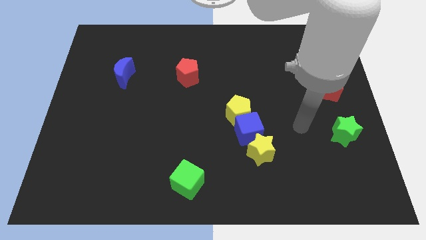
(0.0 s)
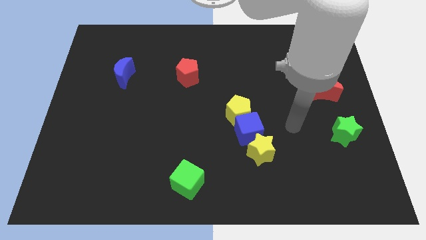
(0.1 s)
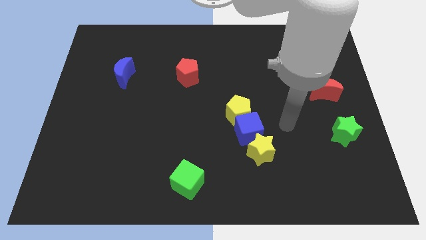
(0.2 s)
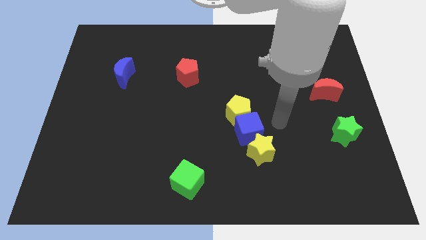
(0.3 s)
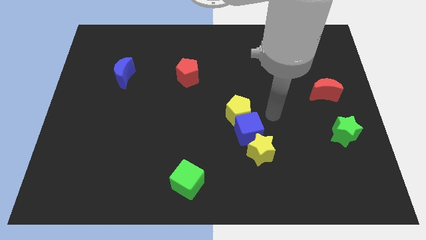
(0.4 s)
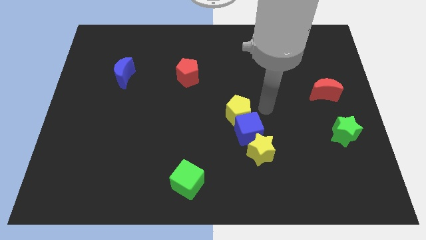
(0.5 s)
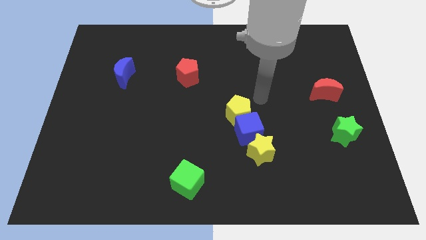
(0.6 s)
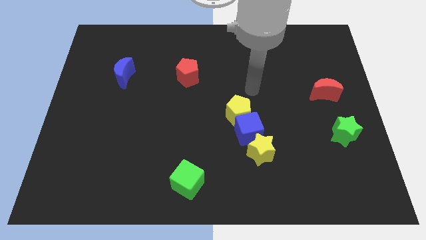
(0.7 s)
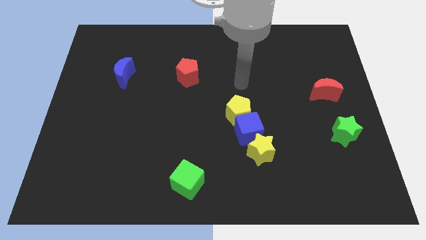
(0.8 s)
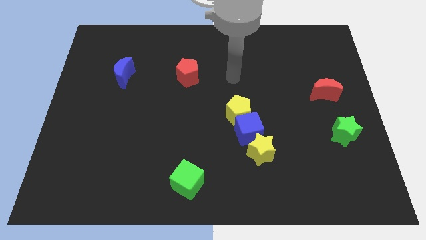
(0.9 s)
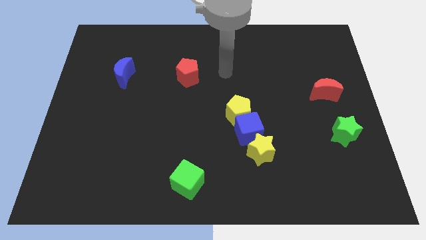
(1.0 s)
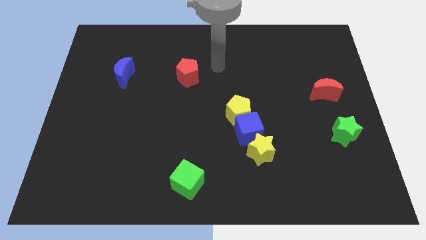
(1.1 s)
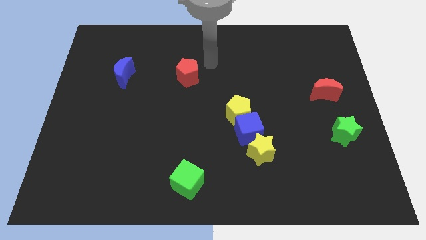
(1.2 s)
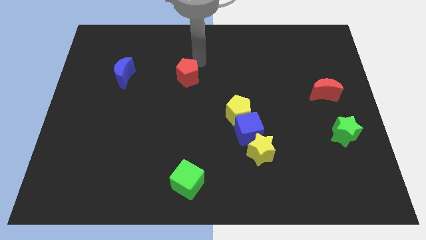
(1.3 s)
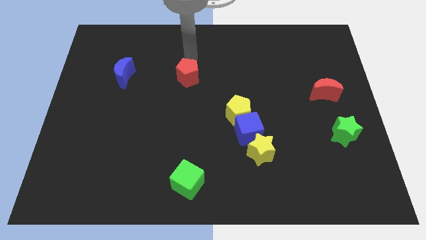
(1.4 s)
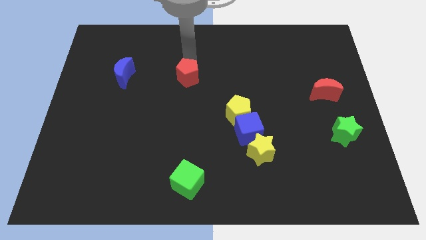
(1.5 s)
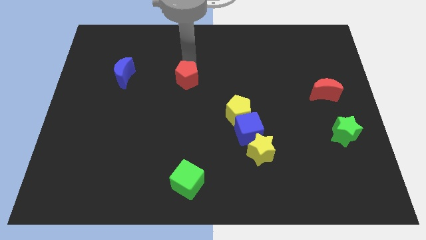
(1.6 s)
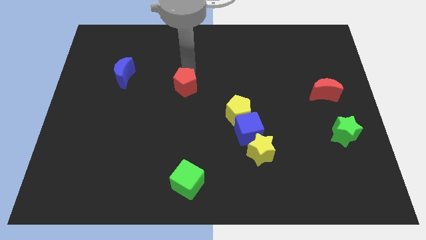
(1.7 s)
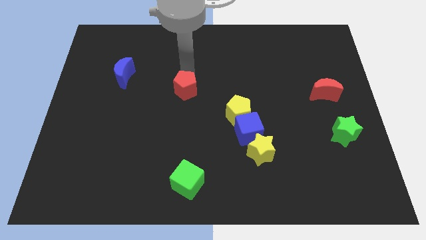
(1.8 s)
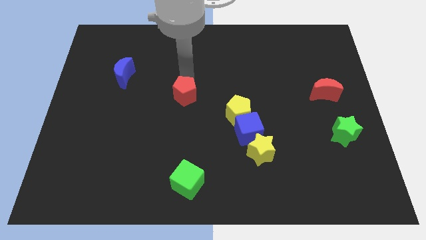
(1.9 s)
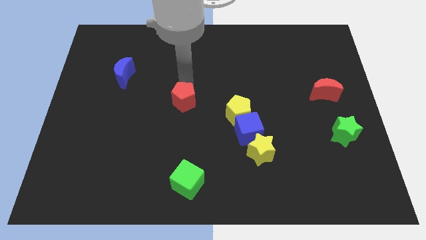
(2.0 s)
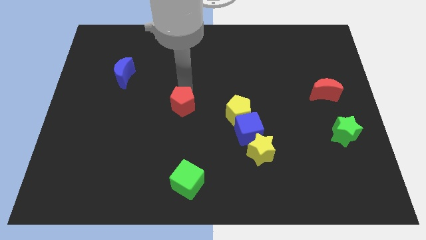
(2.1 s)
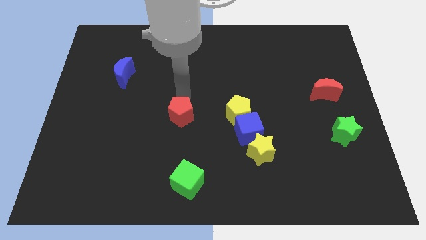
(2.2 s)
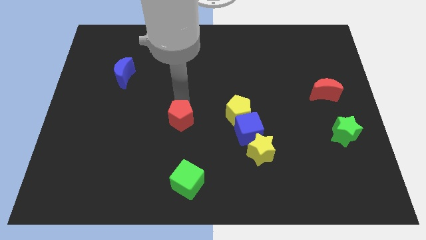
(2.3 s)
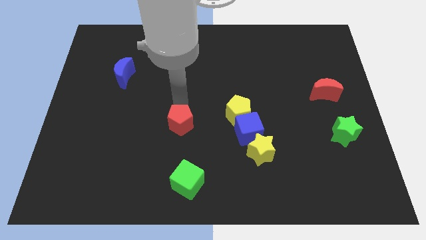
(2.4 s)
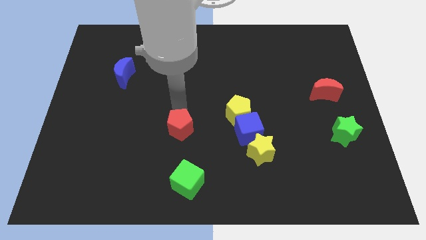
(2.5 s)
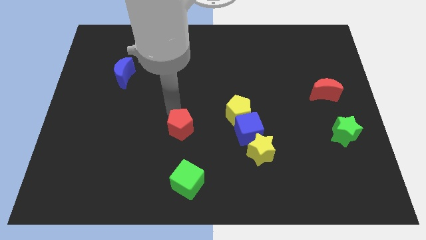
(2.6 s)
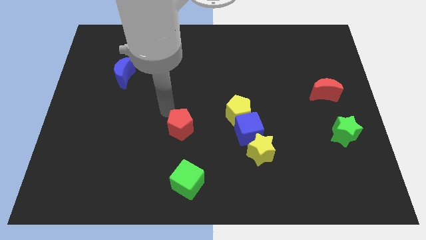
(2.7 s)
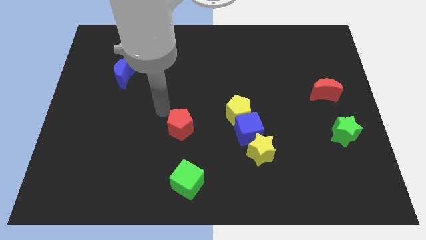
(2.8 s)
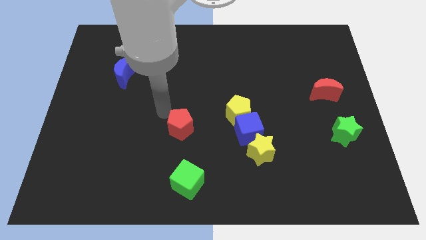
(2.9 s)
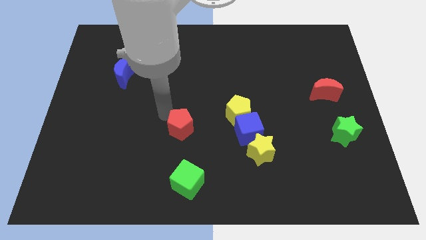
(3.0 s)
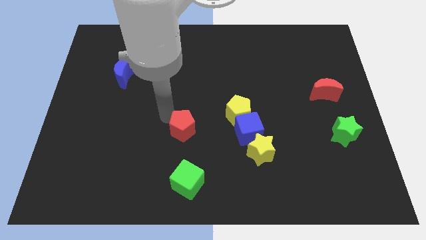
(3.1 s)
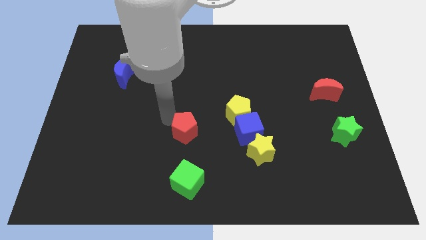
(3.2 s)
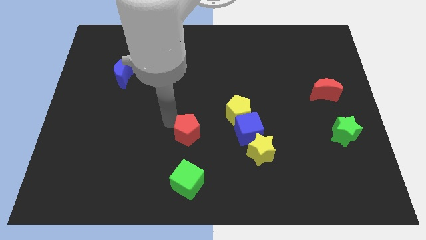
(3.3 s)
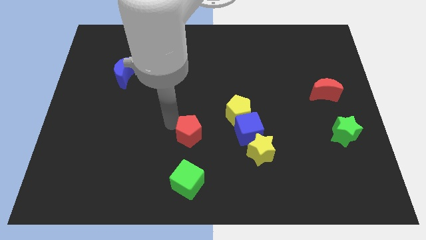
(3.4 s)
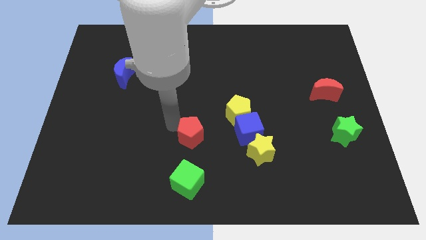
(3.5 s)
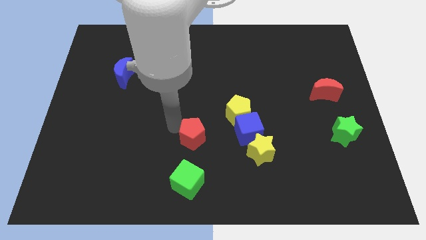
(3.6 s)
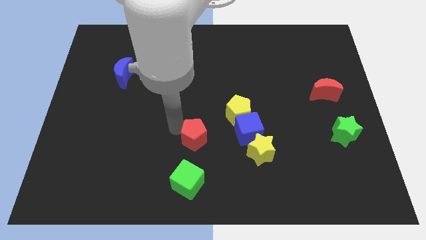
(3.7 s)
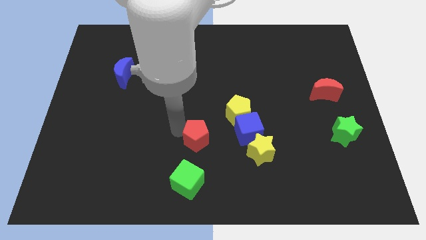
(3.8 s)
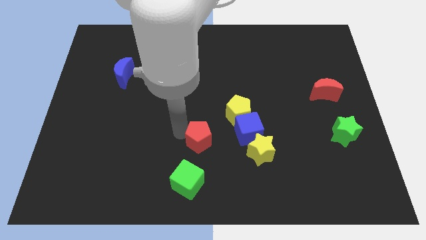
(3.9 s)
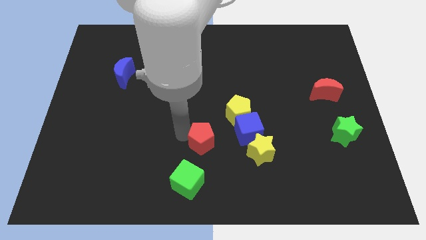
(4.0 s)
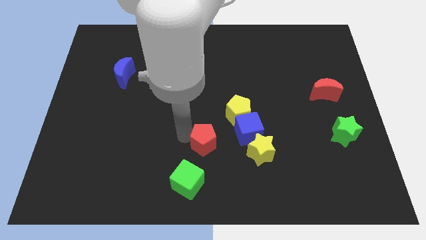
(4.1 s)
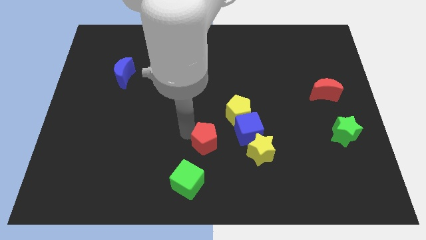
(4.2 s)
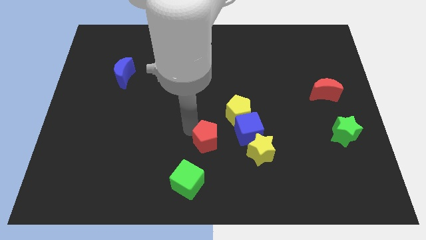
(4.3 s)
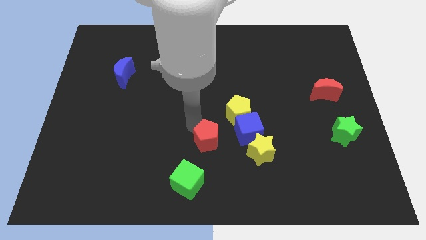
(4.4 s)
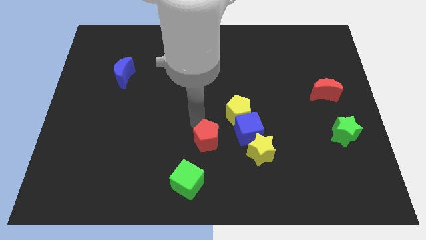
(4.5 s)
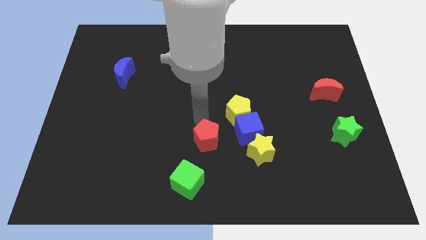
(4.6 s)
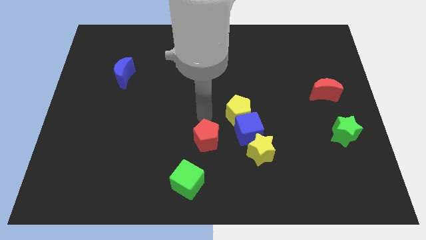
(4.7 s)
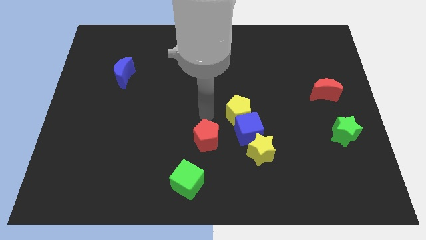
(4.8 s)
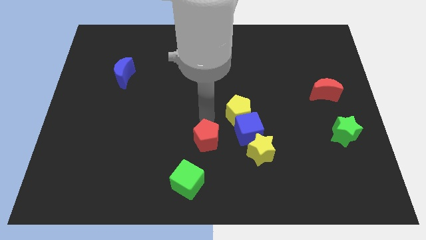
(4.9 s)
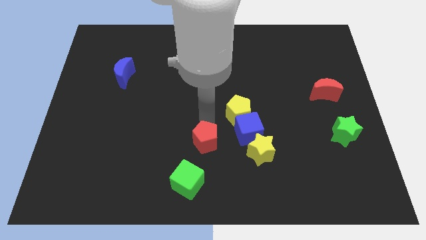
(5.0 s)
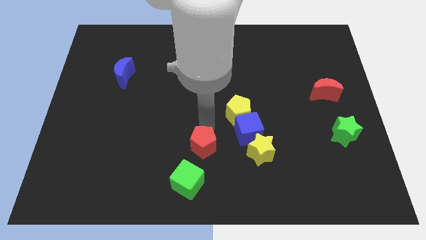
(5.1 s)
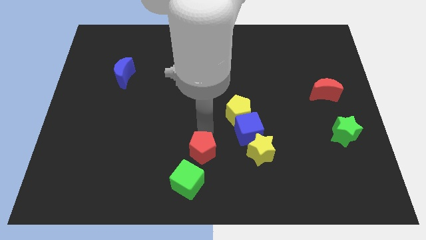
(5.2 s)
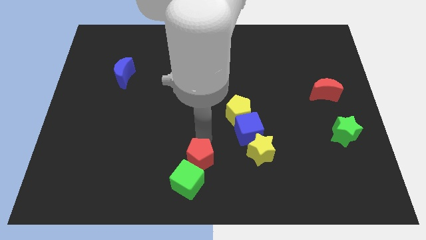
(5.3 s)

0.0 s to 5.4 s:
push the red pentagon to the bottom side

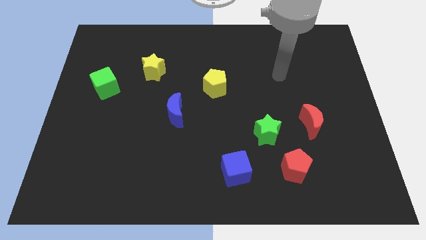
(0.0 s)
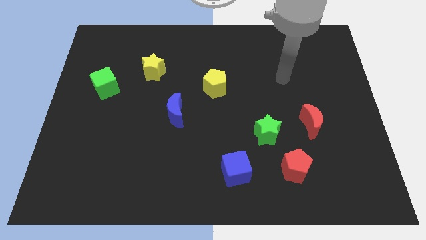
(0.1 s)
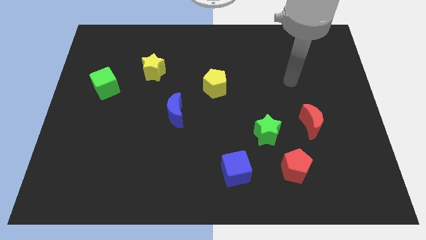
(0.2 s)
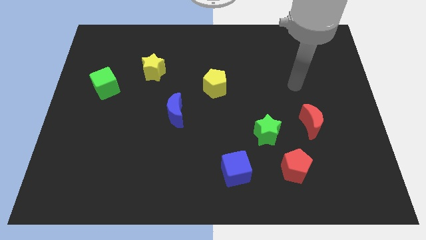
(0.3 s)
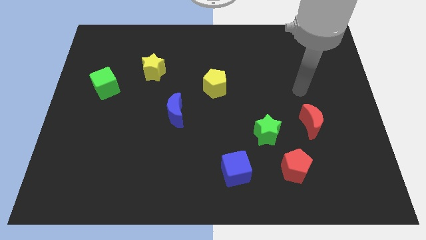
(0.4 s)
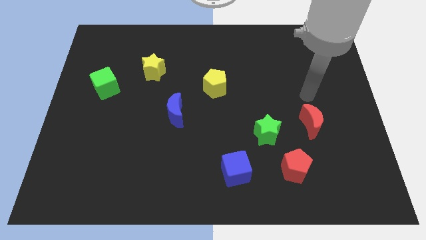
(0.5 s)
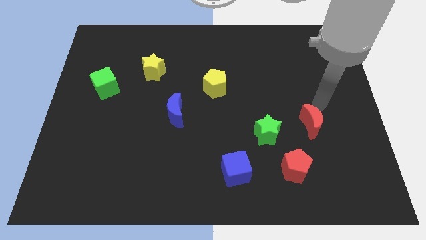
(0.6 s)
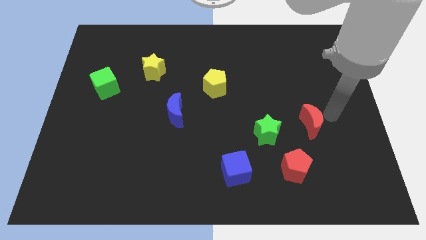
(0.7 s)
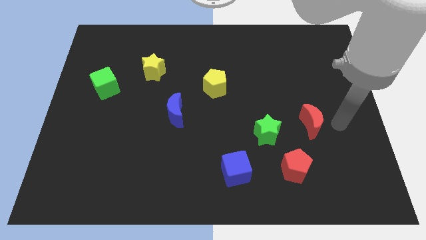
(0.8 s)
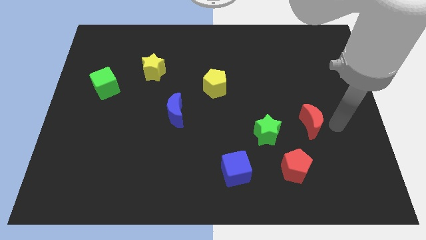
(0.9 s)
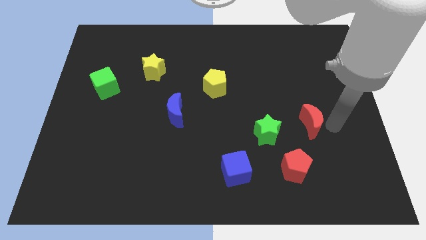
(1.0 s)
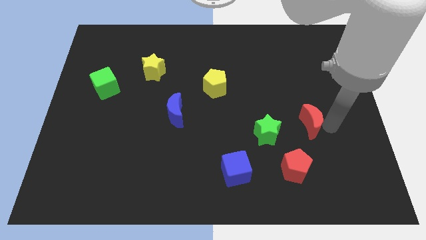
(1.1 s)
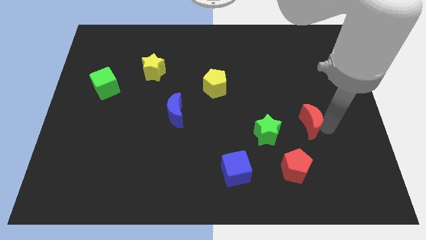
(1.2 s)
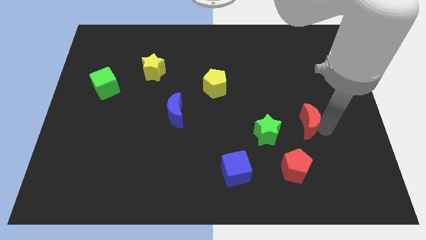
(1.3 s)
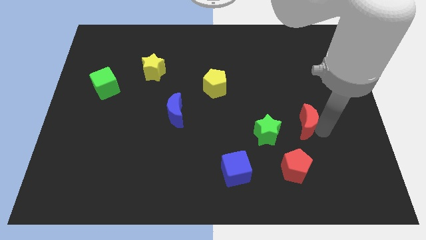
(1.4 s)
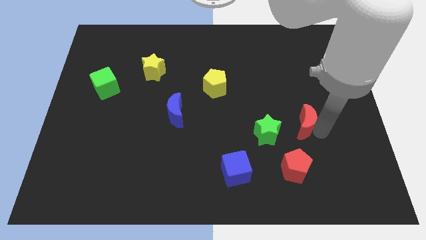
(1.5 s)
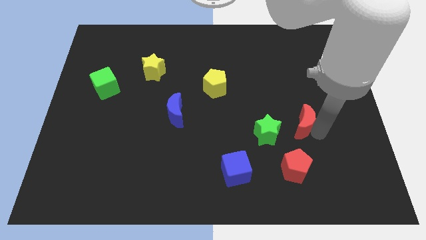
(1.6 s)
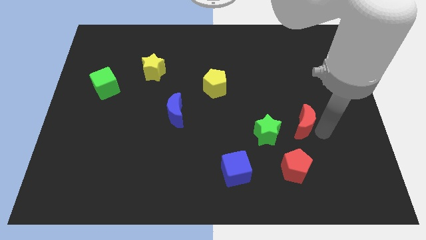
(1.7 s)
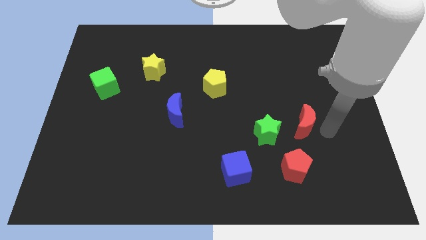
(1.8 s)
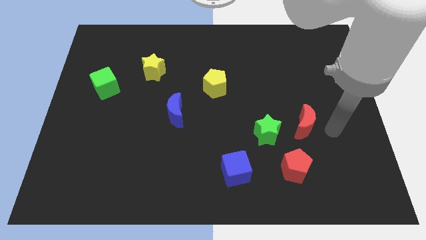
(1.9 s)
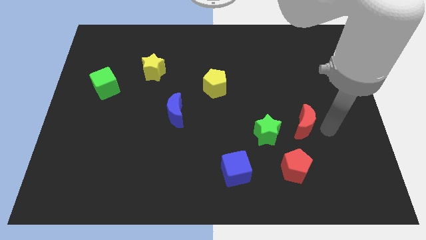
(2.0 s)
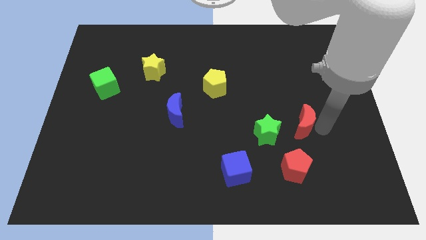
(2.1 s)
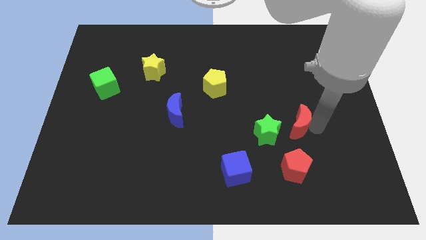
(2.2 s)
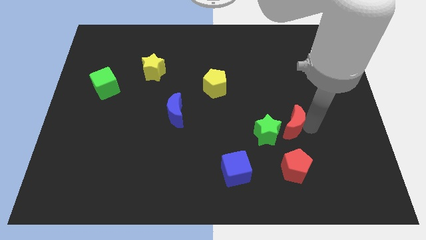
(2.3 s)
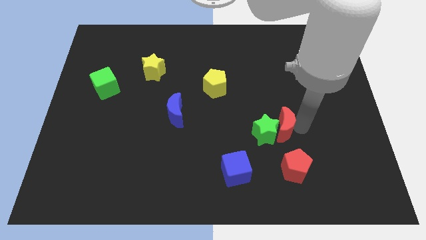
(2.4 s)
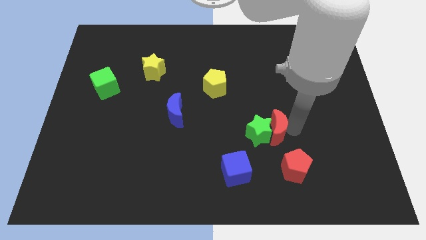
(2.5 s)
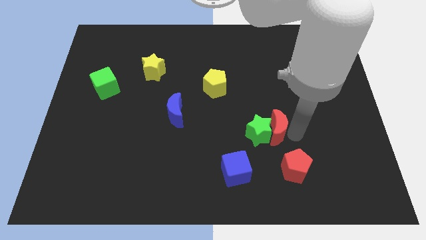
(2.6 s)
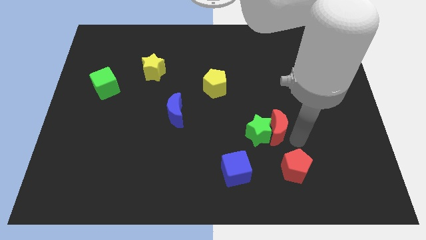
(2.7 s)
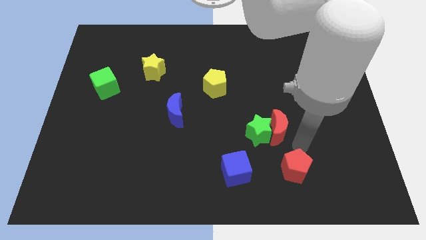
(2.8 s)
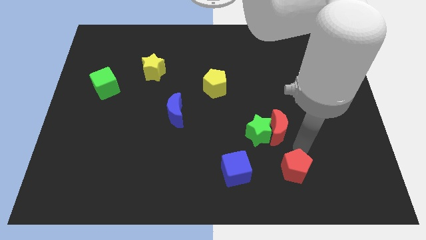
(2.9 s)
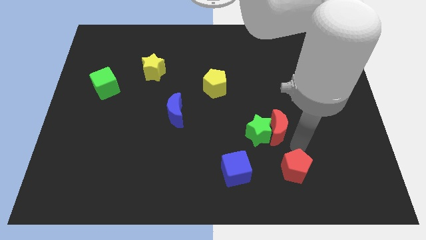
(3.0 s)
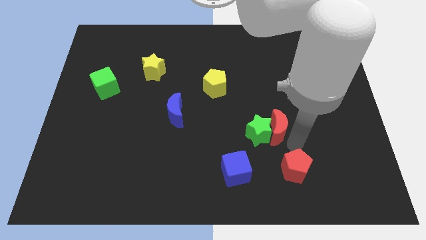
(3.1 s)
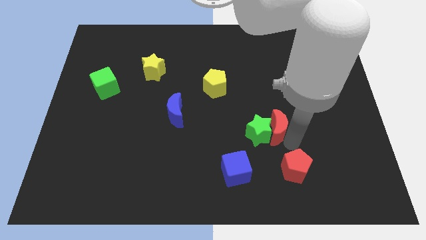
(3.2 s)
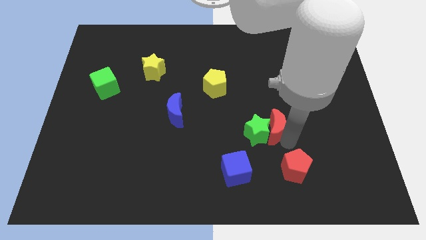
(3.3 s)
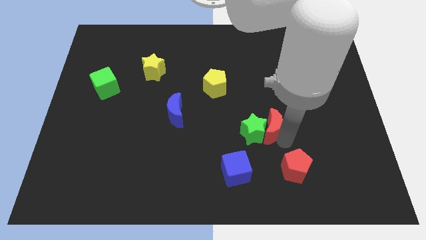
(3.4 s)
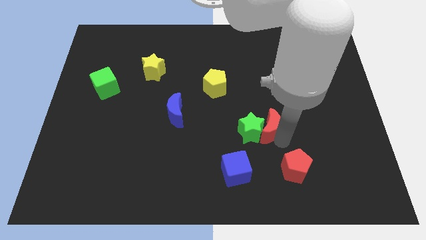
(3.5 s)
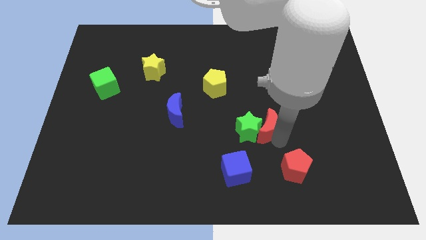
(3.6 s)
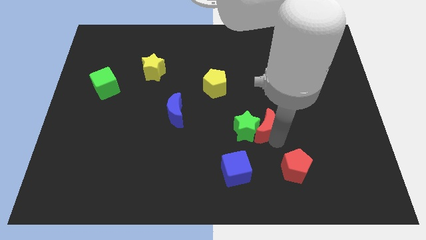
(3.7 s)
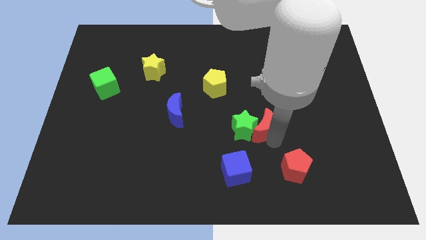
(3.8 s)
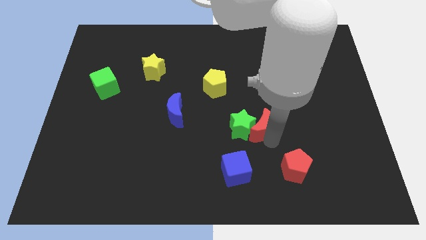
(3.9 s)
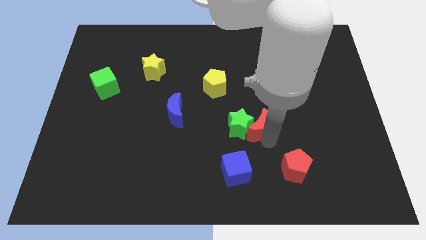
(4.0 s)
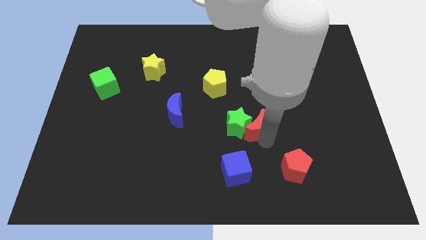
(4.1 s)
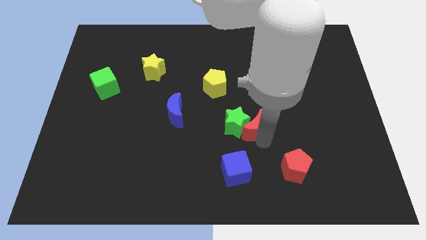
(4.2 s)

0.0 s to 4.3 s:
put the red moon to the center of the board
